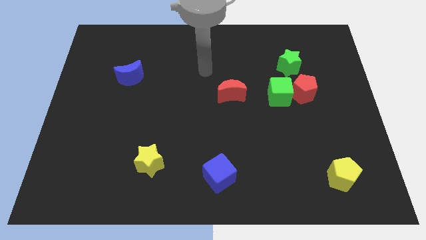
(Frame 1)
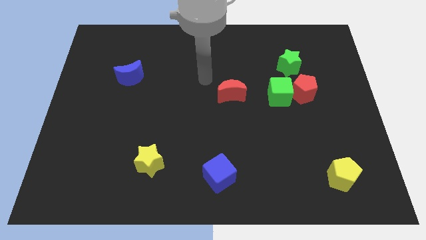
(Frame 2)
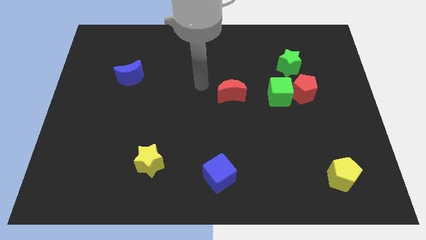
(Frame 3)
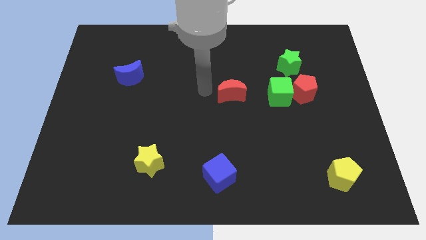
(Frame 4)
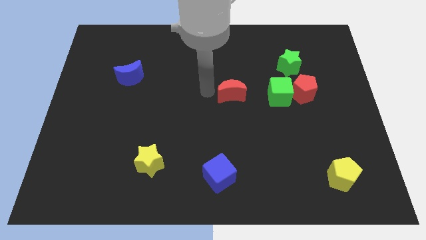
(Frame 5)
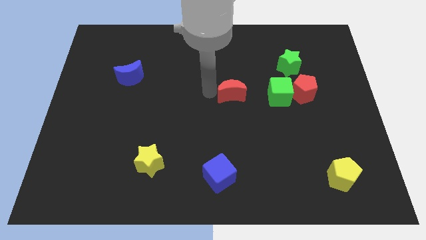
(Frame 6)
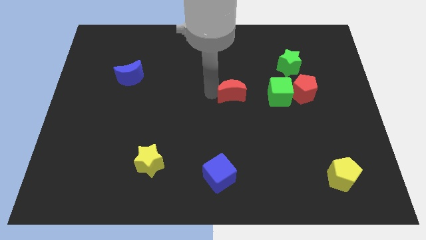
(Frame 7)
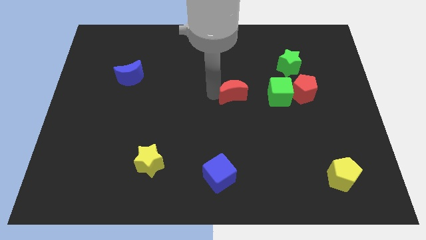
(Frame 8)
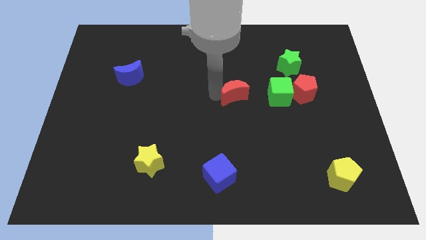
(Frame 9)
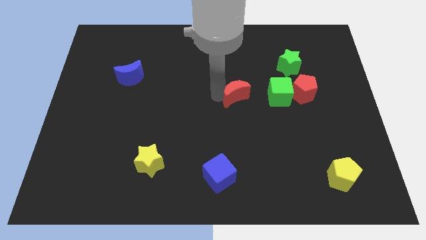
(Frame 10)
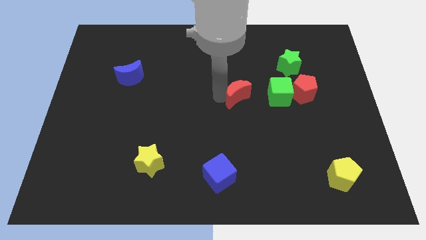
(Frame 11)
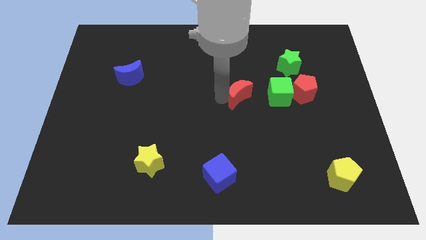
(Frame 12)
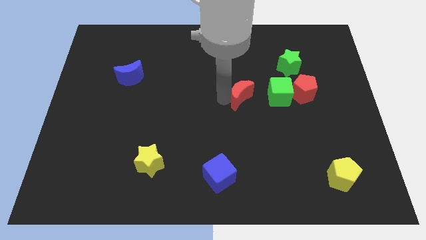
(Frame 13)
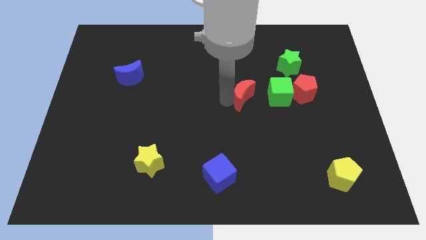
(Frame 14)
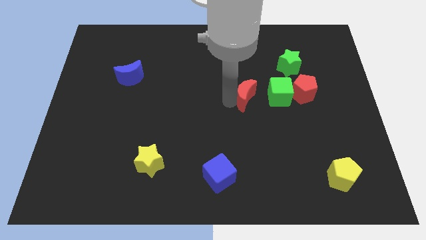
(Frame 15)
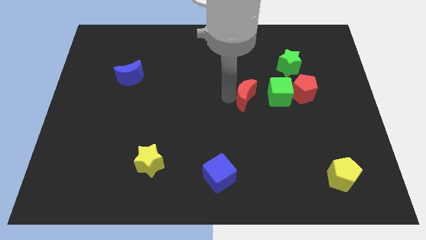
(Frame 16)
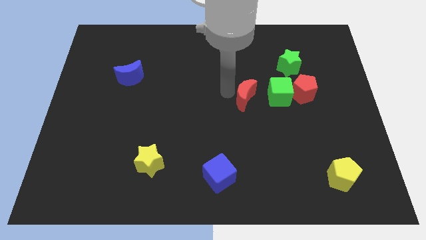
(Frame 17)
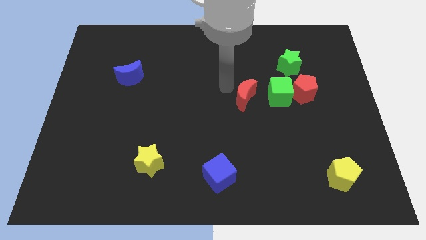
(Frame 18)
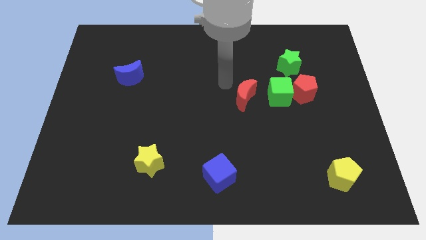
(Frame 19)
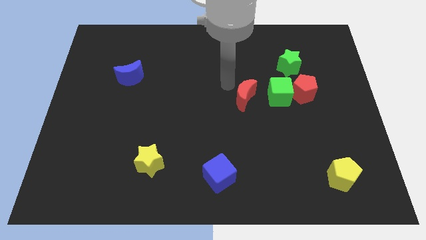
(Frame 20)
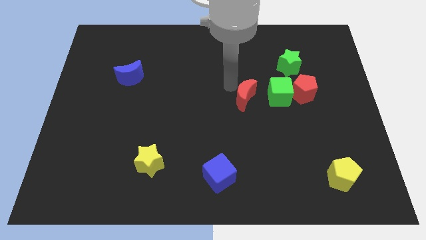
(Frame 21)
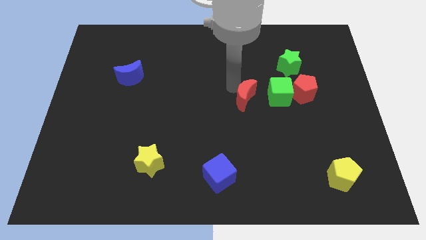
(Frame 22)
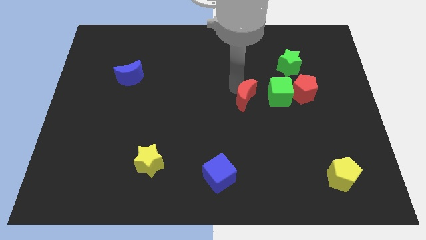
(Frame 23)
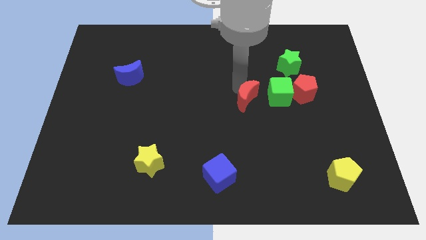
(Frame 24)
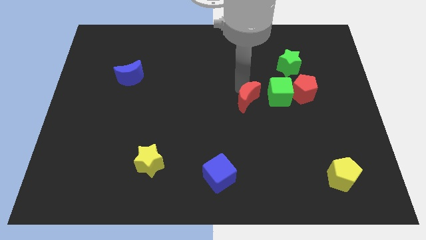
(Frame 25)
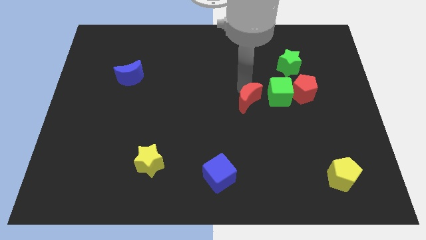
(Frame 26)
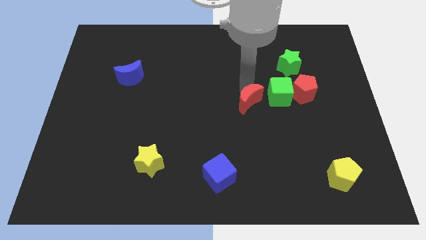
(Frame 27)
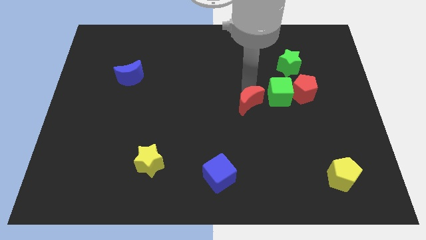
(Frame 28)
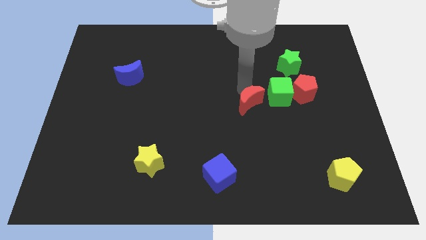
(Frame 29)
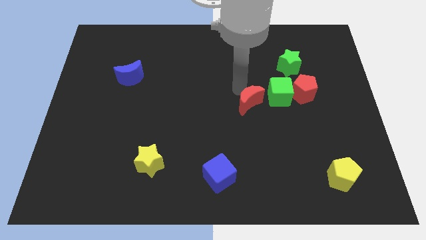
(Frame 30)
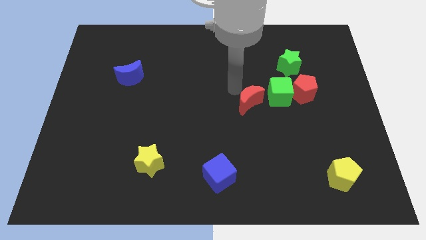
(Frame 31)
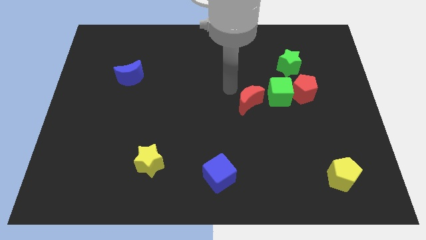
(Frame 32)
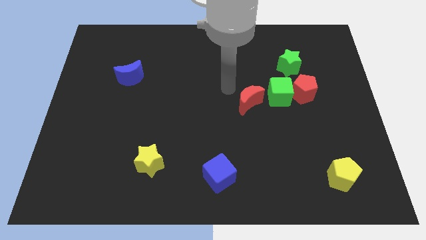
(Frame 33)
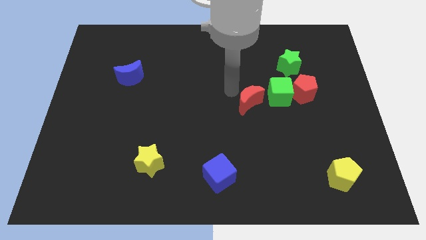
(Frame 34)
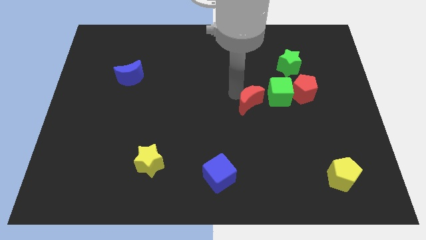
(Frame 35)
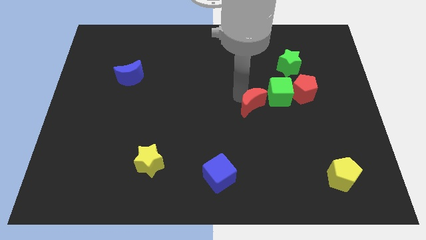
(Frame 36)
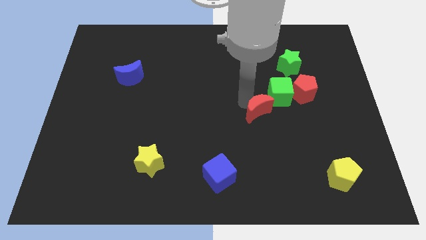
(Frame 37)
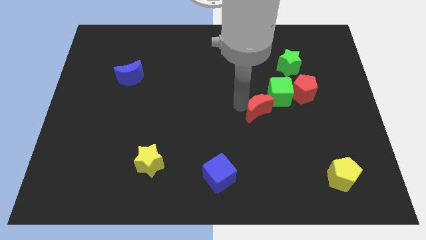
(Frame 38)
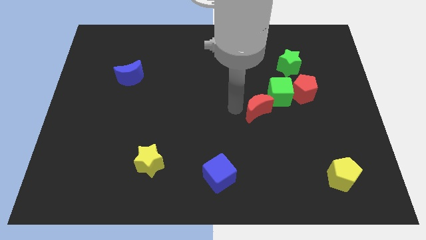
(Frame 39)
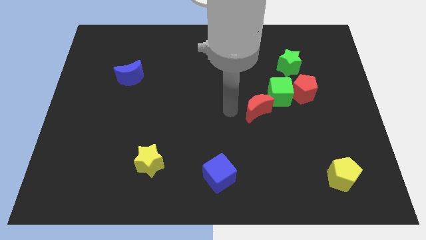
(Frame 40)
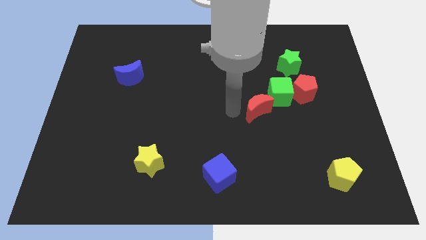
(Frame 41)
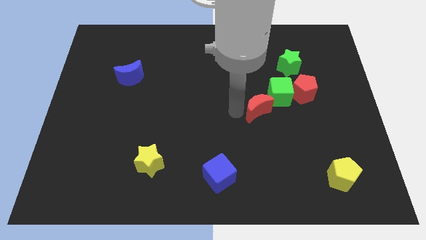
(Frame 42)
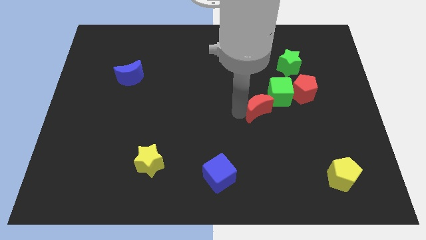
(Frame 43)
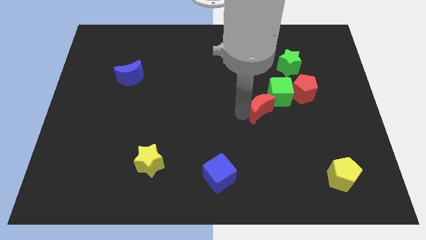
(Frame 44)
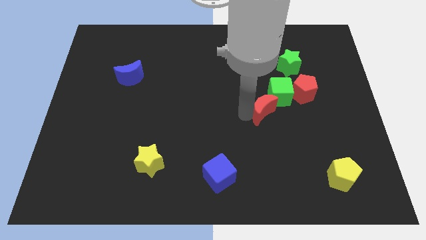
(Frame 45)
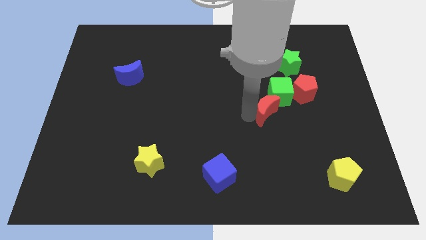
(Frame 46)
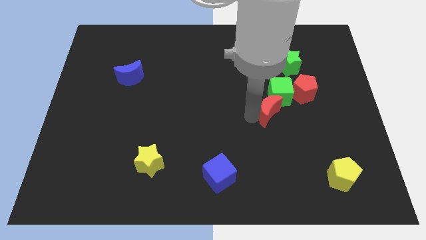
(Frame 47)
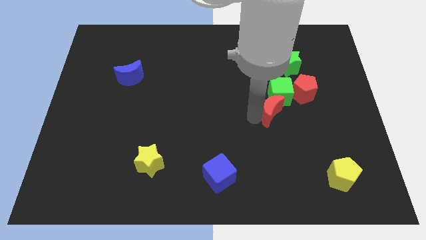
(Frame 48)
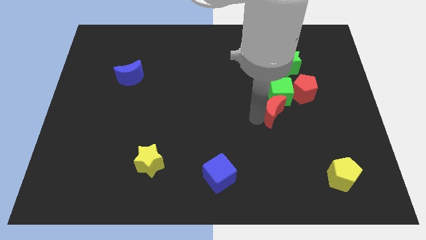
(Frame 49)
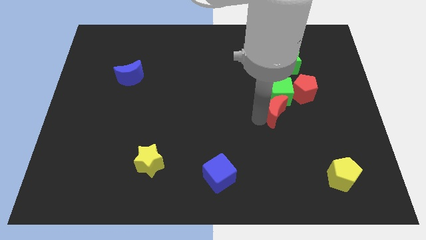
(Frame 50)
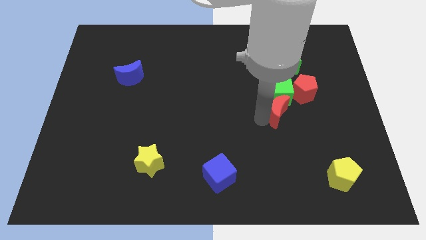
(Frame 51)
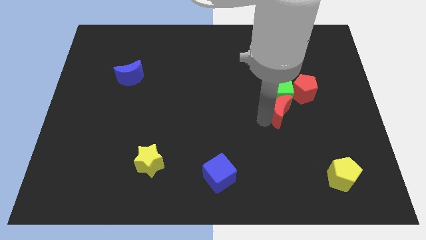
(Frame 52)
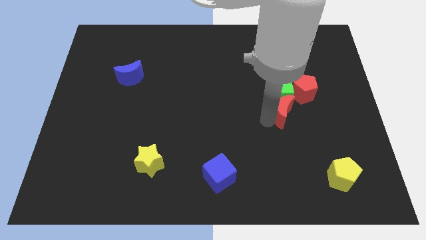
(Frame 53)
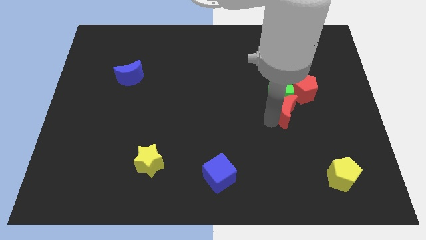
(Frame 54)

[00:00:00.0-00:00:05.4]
slide the red moon to the bottom side of the green star

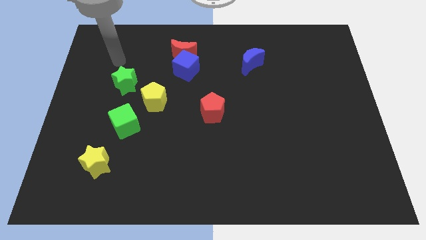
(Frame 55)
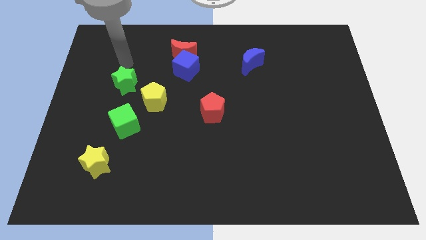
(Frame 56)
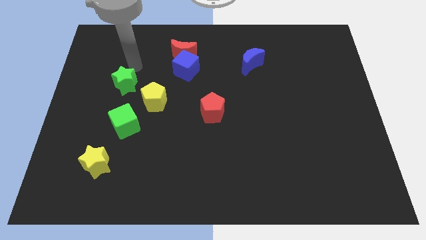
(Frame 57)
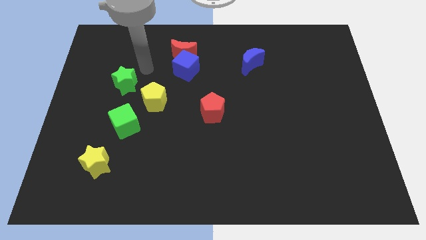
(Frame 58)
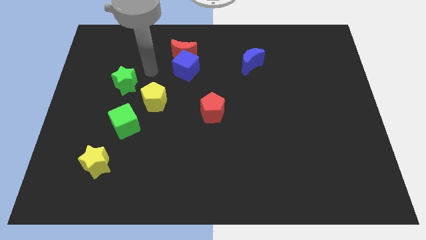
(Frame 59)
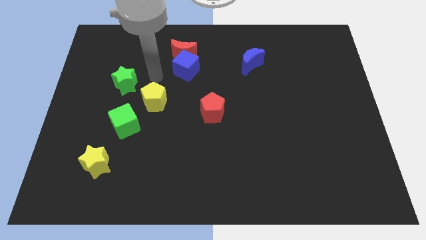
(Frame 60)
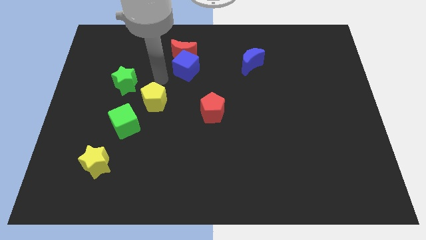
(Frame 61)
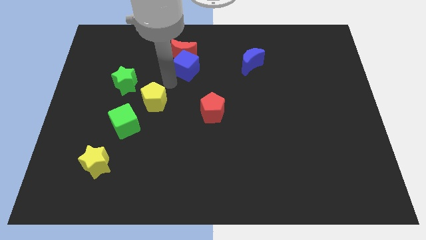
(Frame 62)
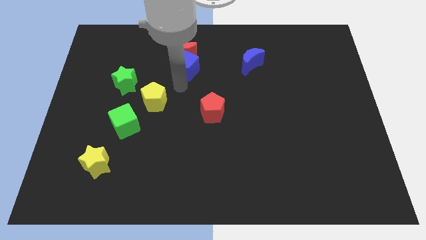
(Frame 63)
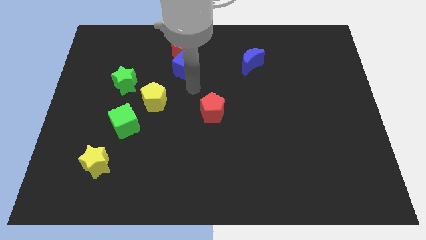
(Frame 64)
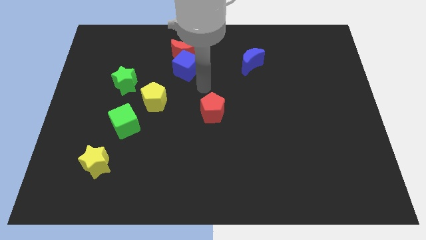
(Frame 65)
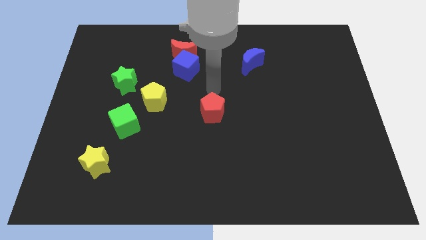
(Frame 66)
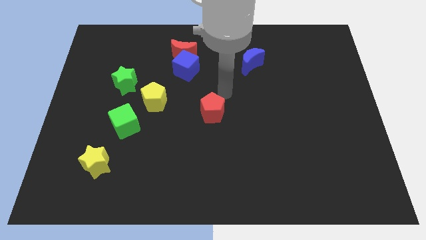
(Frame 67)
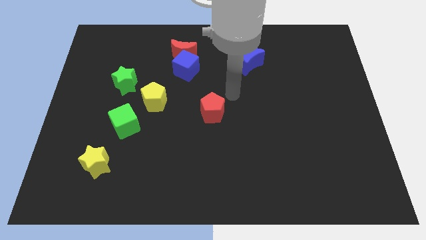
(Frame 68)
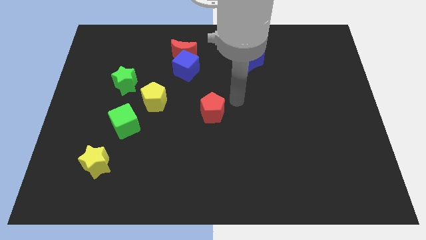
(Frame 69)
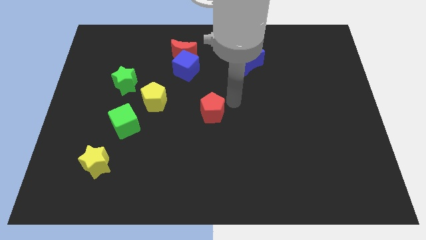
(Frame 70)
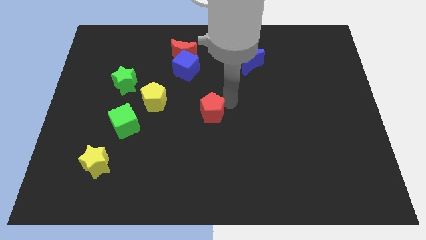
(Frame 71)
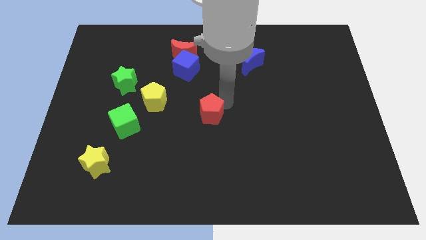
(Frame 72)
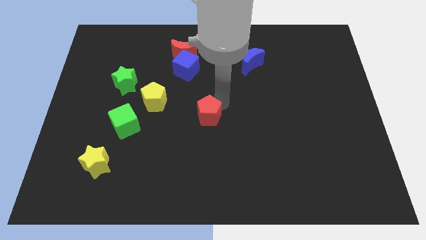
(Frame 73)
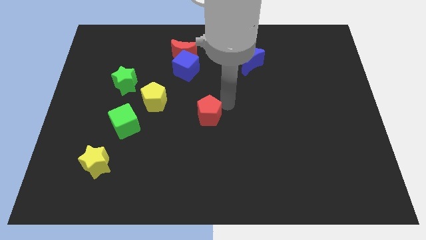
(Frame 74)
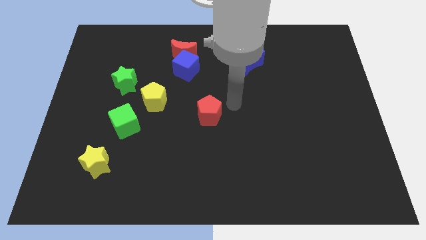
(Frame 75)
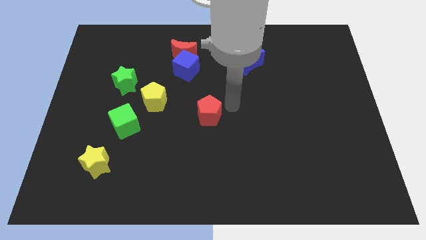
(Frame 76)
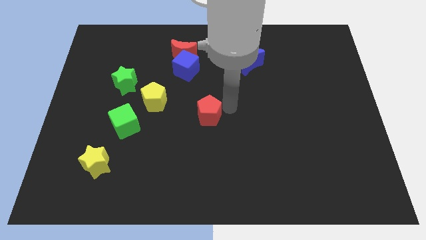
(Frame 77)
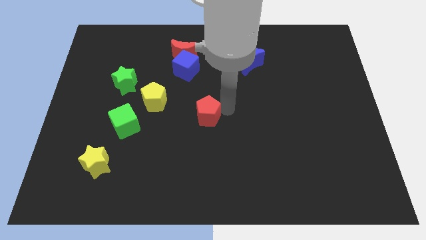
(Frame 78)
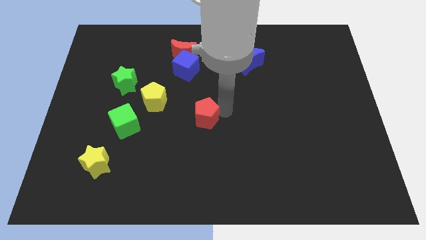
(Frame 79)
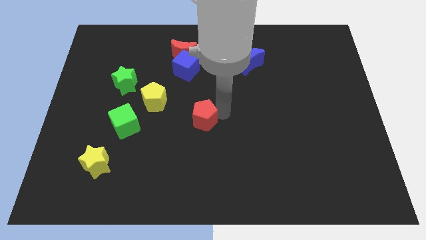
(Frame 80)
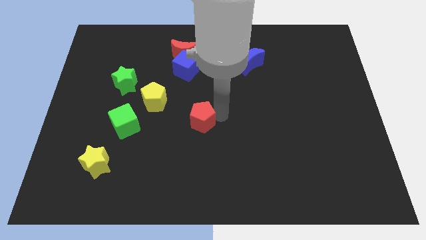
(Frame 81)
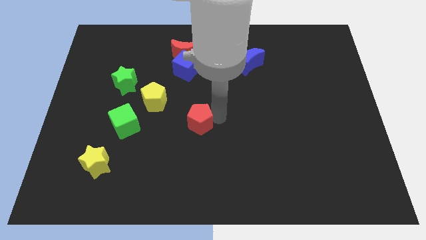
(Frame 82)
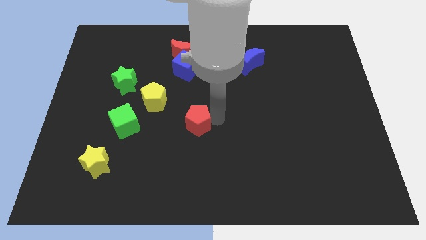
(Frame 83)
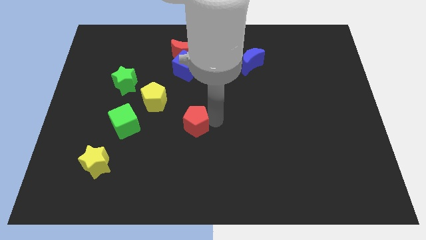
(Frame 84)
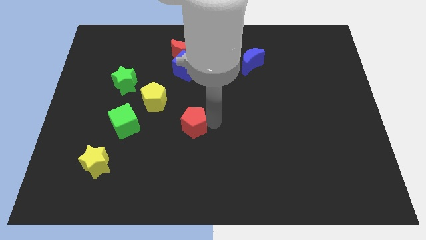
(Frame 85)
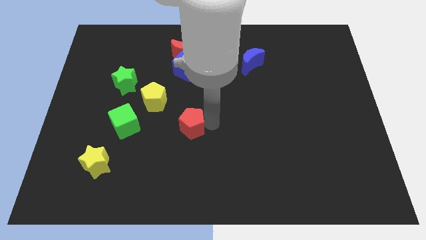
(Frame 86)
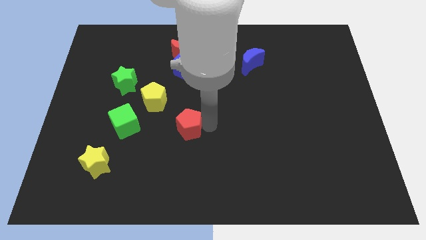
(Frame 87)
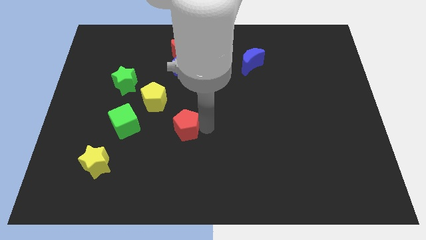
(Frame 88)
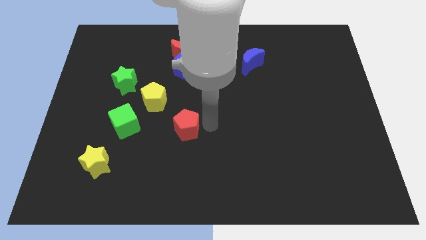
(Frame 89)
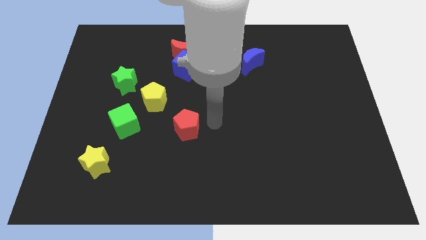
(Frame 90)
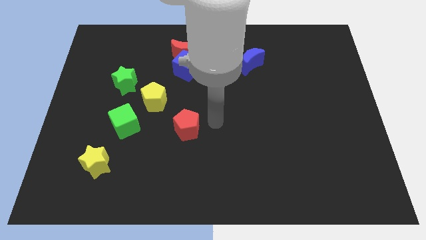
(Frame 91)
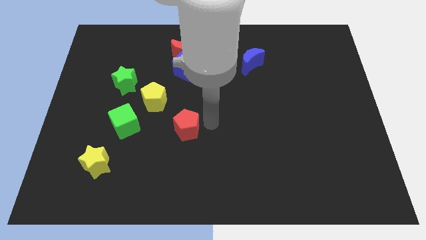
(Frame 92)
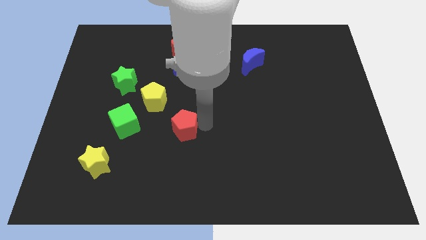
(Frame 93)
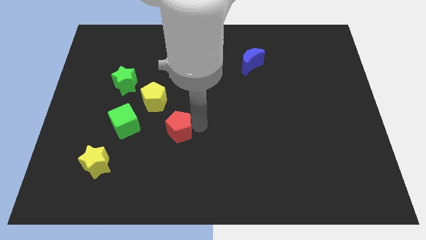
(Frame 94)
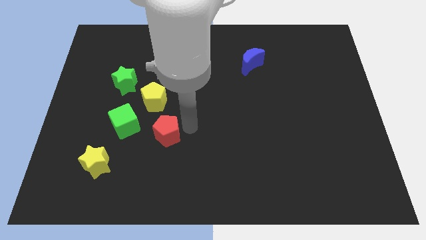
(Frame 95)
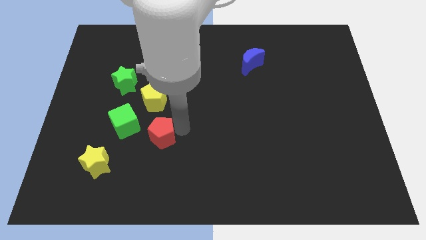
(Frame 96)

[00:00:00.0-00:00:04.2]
put the red pentagon to the bottom right of the green cube
